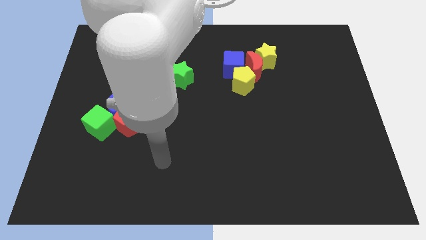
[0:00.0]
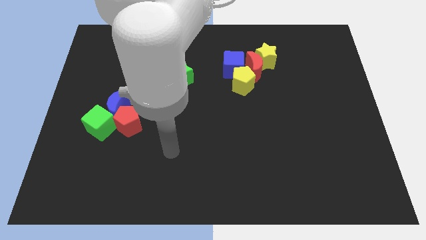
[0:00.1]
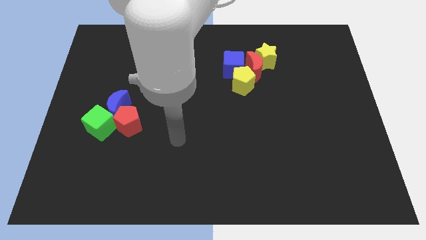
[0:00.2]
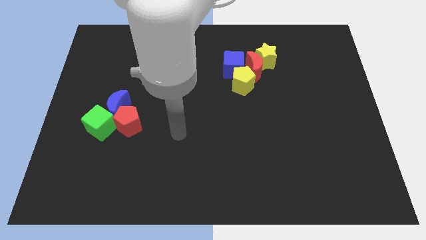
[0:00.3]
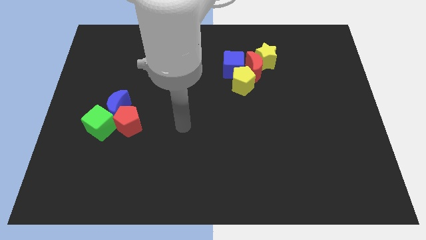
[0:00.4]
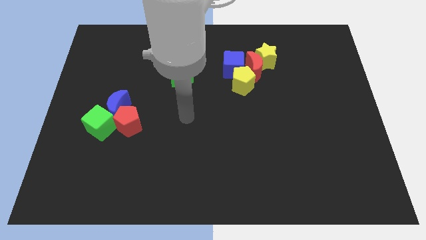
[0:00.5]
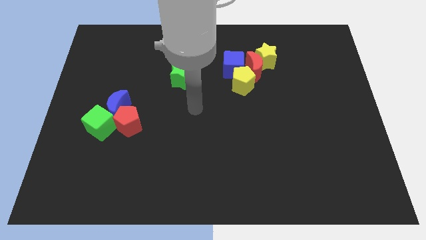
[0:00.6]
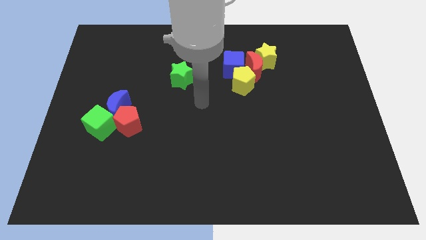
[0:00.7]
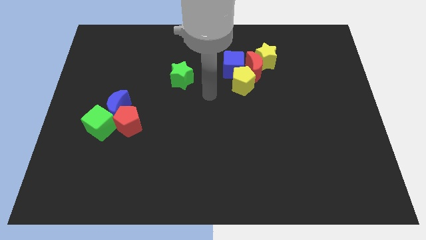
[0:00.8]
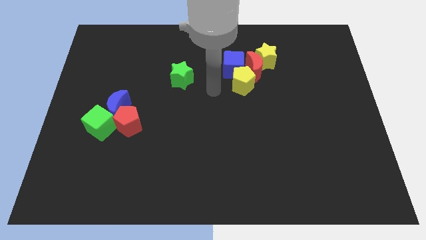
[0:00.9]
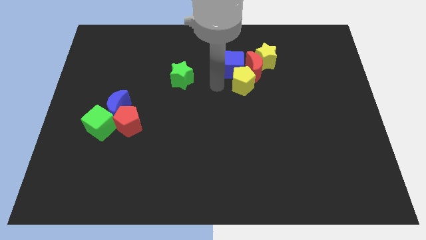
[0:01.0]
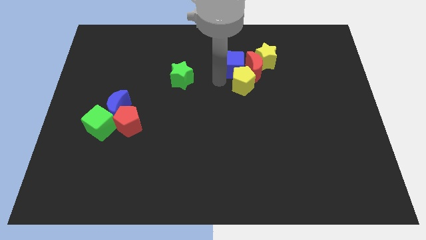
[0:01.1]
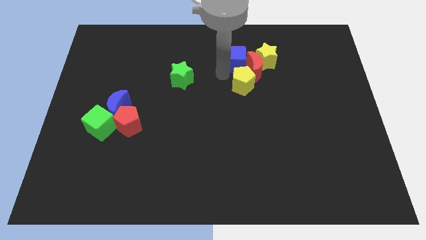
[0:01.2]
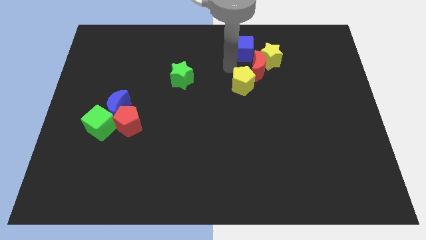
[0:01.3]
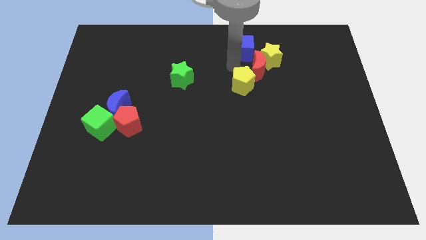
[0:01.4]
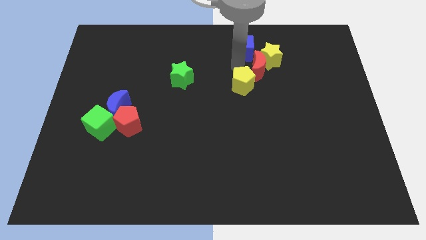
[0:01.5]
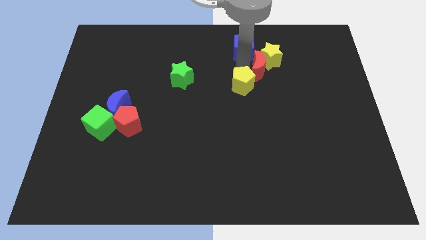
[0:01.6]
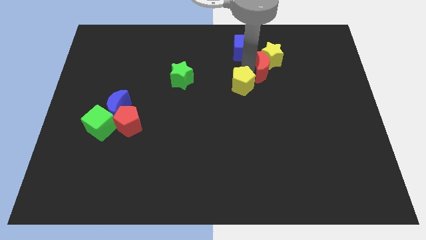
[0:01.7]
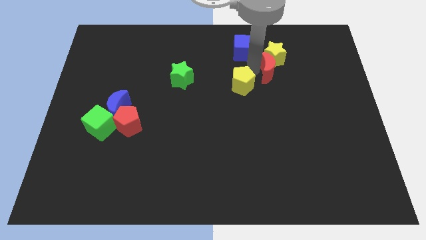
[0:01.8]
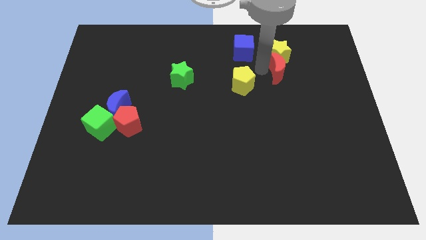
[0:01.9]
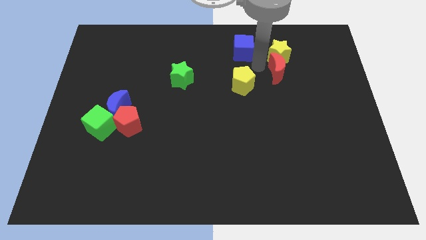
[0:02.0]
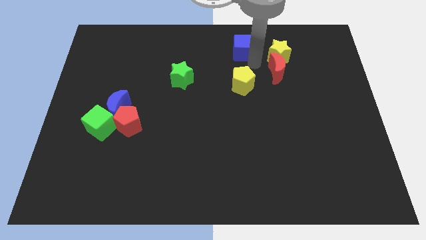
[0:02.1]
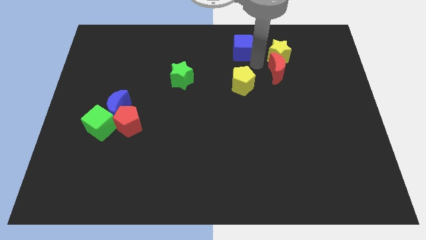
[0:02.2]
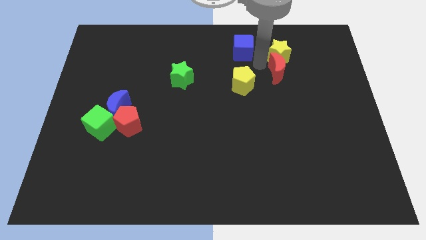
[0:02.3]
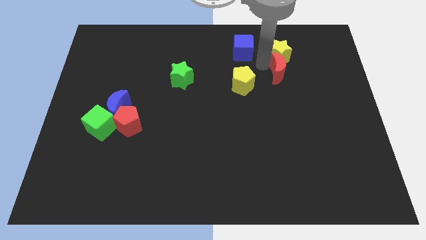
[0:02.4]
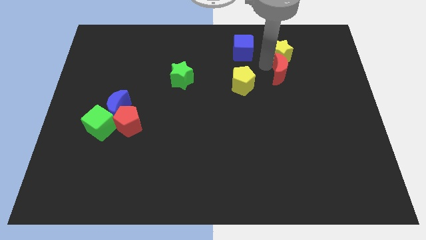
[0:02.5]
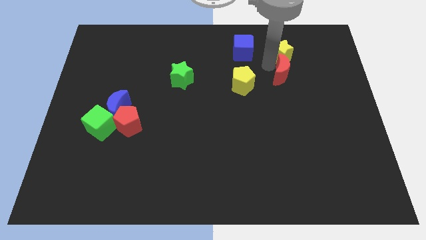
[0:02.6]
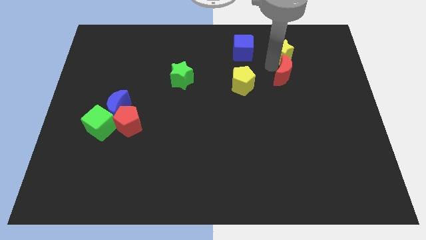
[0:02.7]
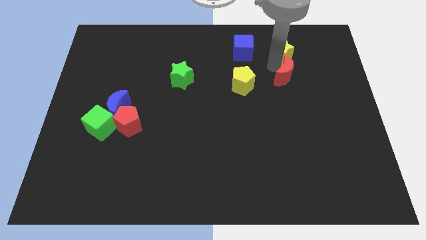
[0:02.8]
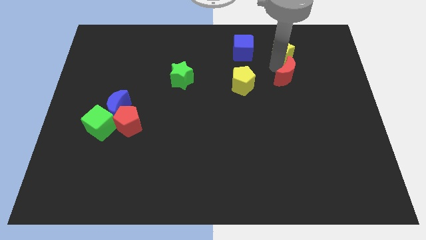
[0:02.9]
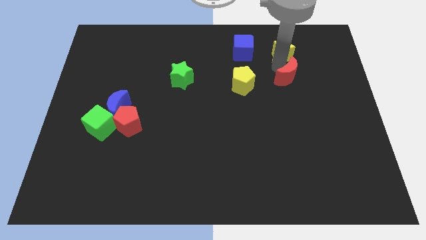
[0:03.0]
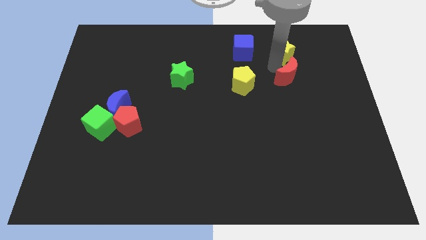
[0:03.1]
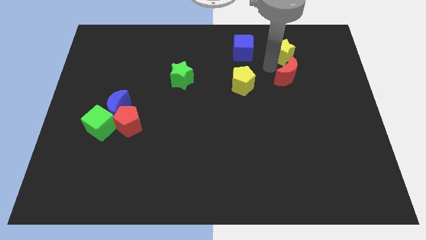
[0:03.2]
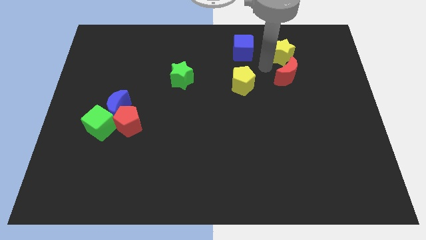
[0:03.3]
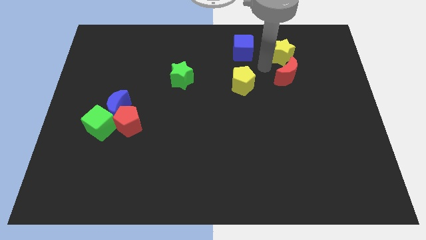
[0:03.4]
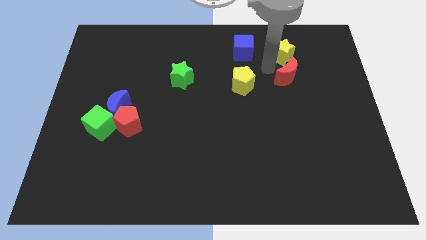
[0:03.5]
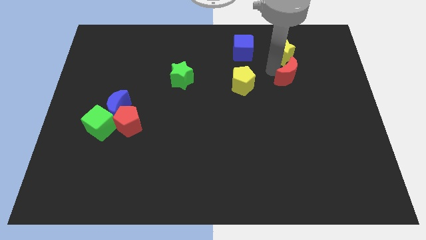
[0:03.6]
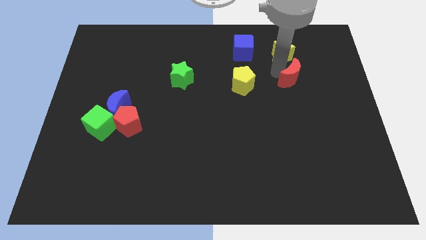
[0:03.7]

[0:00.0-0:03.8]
pull the red moon apart from the group

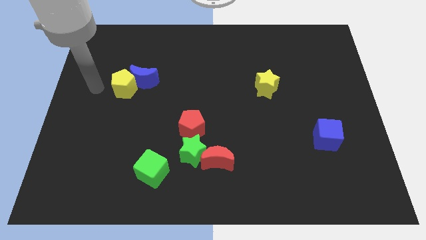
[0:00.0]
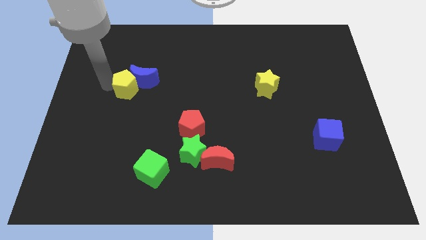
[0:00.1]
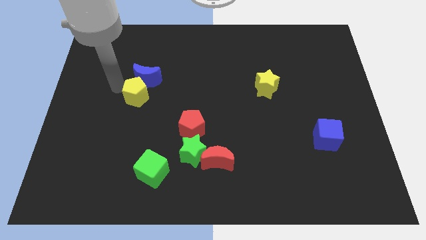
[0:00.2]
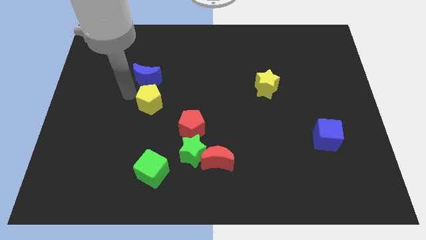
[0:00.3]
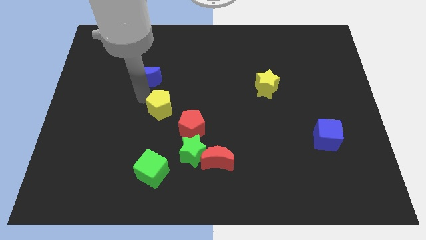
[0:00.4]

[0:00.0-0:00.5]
move the blue moon away from the yellow pentagon

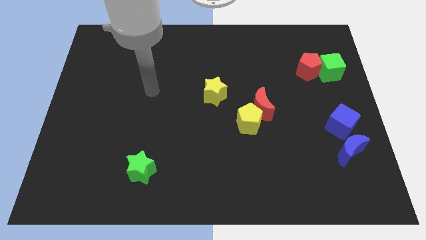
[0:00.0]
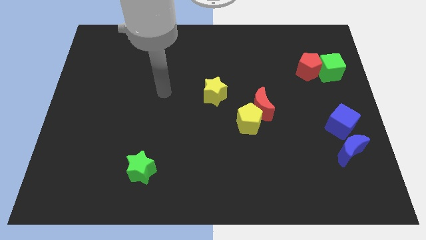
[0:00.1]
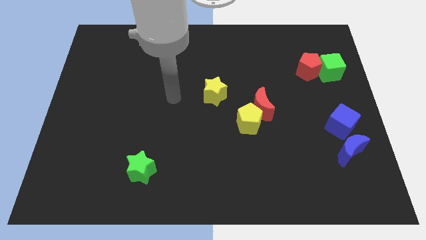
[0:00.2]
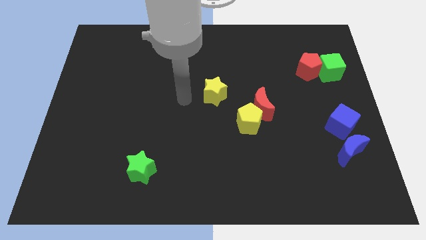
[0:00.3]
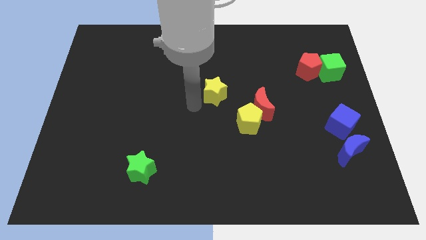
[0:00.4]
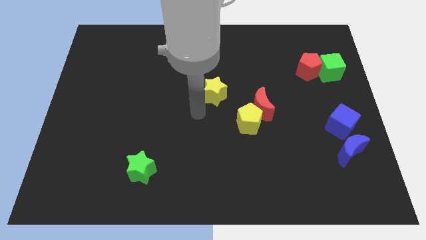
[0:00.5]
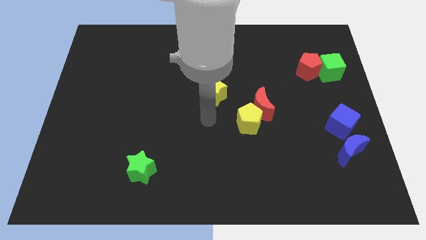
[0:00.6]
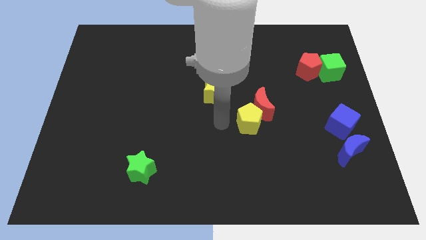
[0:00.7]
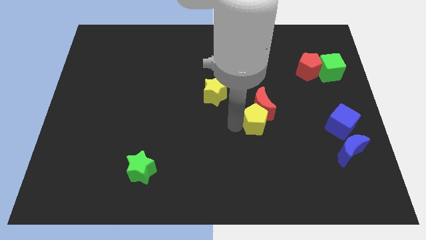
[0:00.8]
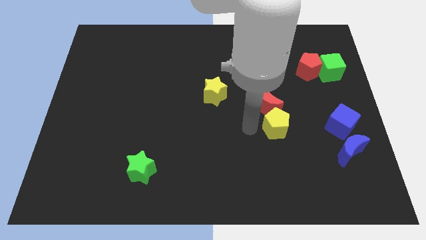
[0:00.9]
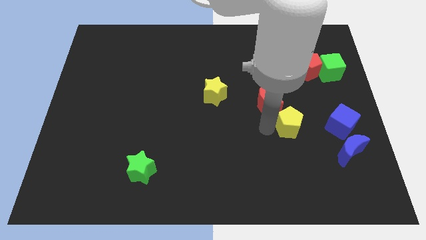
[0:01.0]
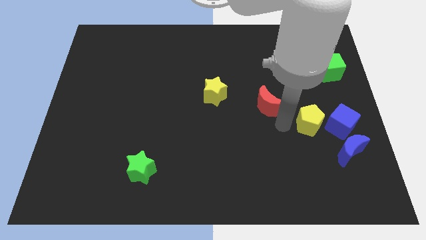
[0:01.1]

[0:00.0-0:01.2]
move the red moon away from the yellow pentagon

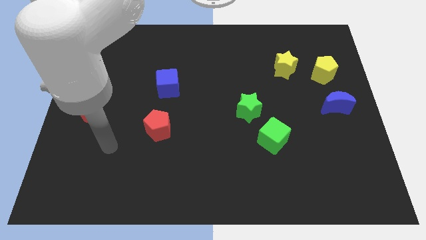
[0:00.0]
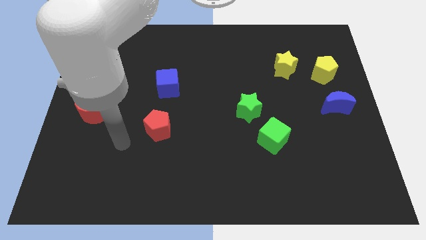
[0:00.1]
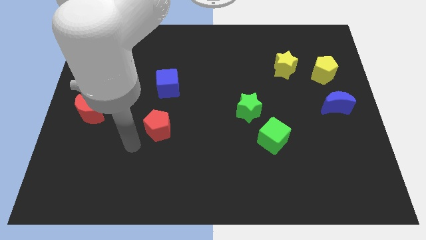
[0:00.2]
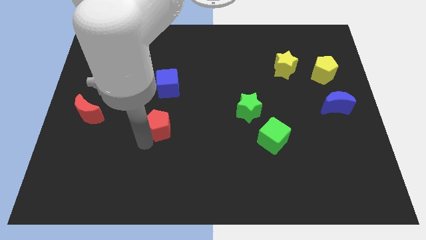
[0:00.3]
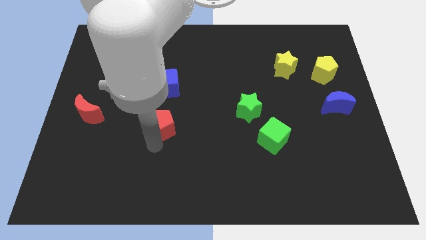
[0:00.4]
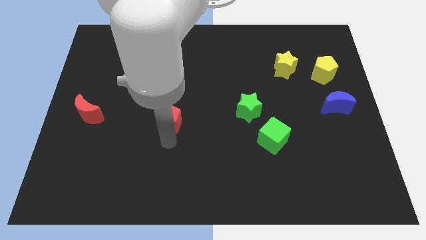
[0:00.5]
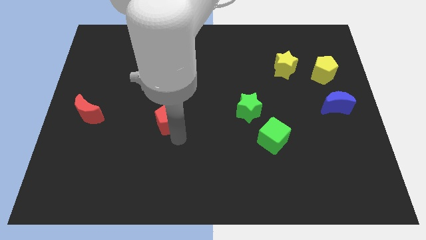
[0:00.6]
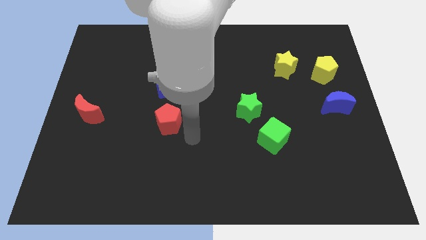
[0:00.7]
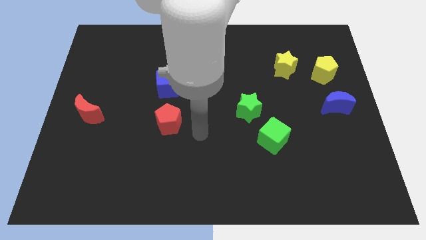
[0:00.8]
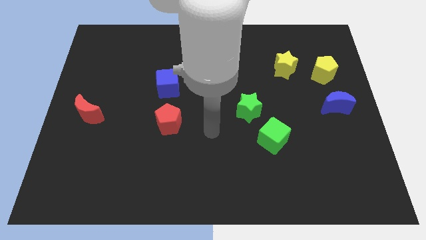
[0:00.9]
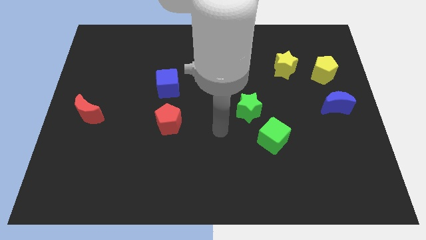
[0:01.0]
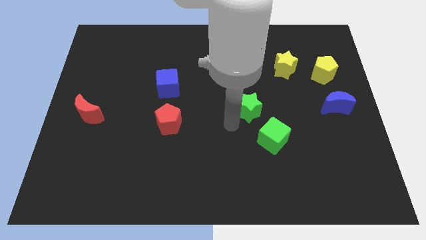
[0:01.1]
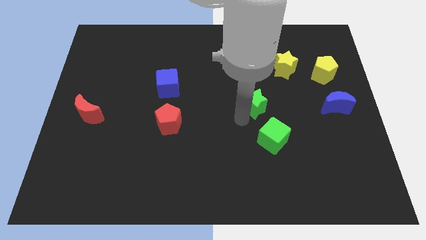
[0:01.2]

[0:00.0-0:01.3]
move the green cube away from the green star

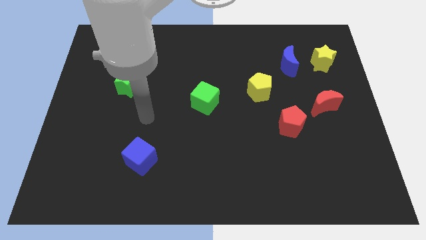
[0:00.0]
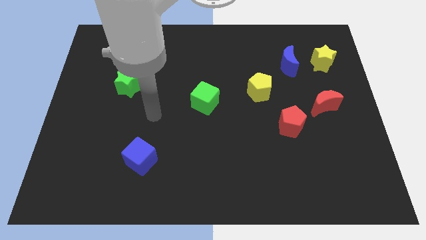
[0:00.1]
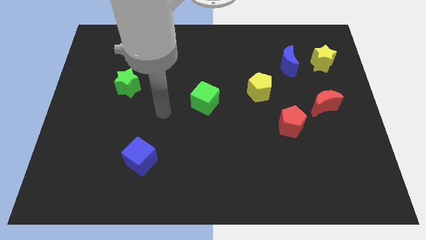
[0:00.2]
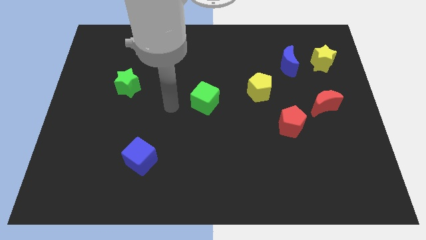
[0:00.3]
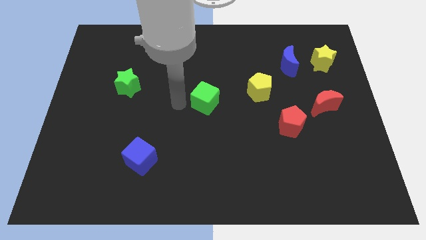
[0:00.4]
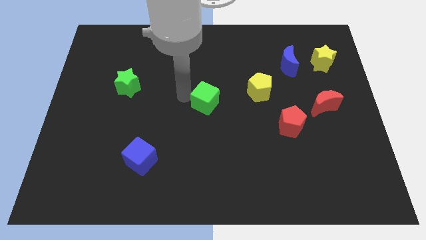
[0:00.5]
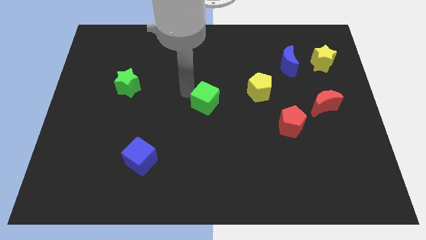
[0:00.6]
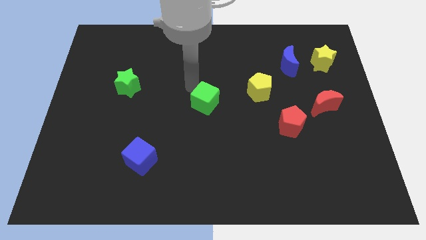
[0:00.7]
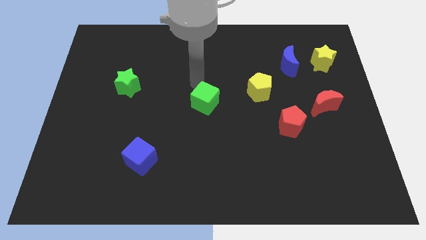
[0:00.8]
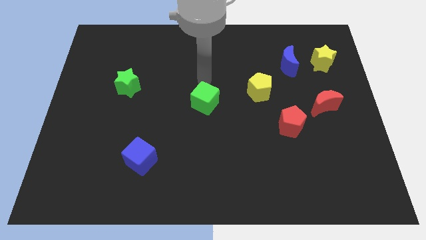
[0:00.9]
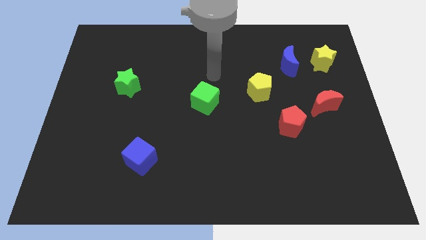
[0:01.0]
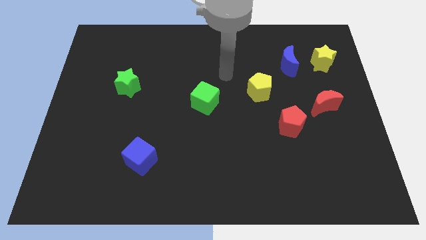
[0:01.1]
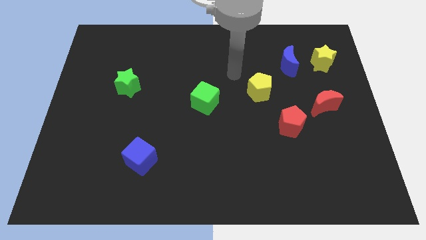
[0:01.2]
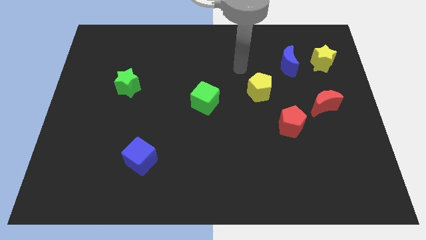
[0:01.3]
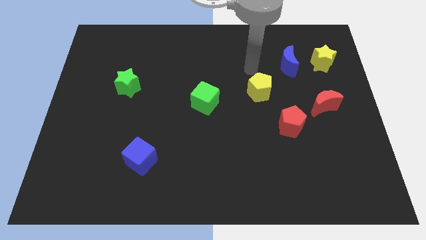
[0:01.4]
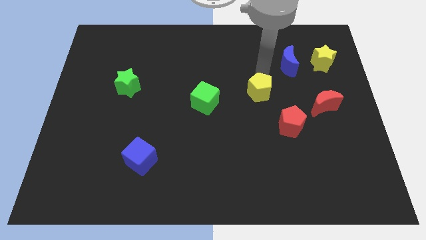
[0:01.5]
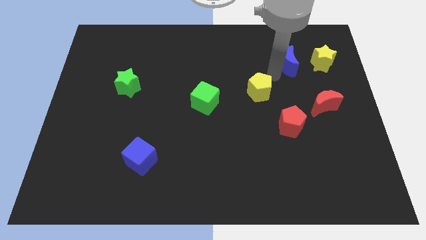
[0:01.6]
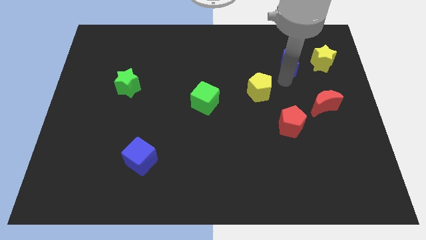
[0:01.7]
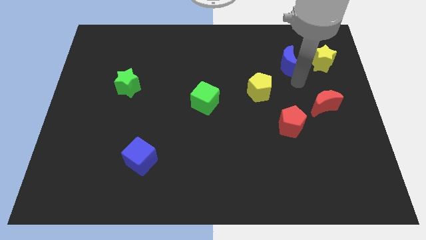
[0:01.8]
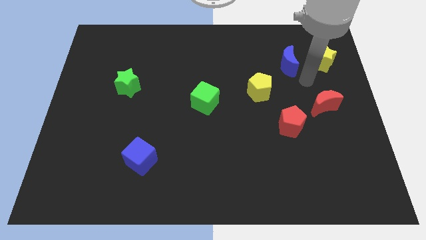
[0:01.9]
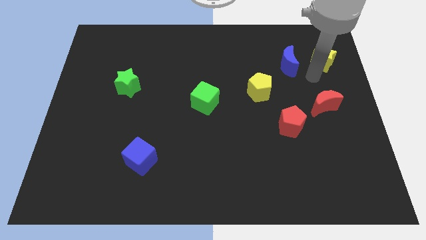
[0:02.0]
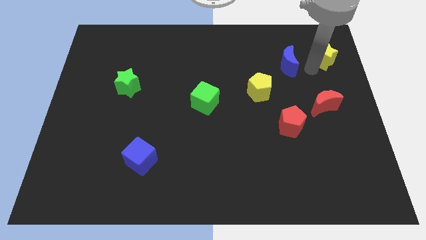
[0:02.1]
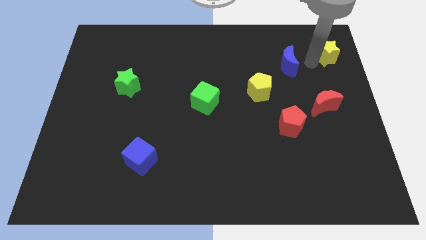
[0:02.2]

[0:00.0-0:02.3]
move the blue moon away from the yellow star

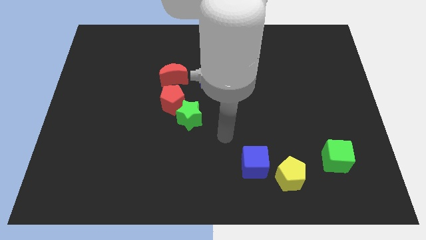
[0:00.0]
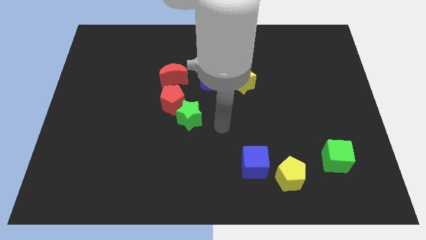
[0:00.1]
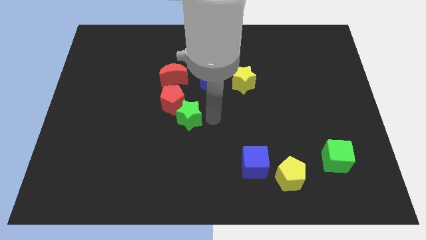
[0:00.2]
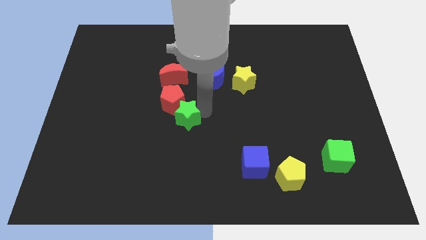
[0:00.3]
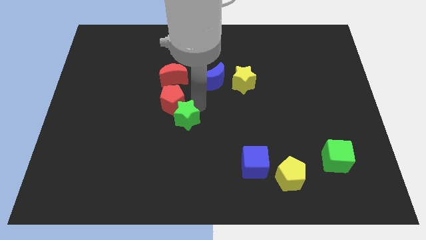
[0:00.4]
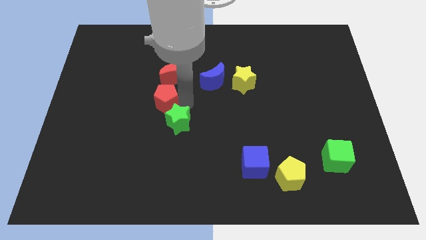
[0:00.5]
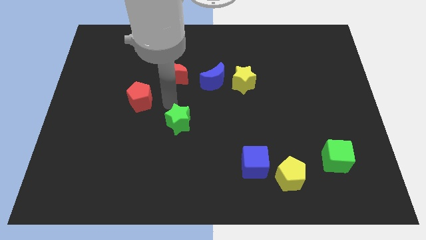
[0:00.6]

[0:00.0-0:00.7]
pull the green star apart from the red pentagon